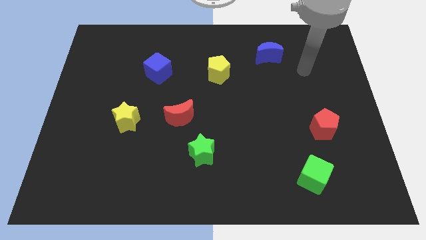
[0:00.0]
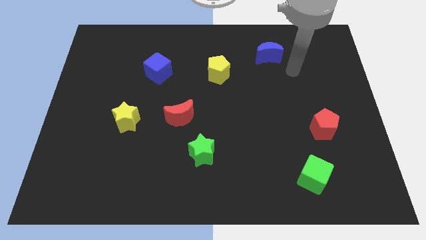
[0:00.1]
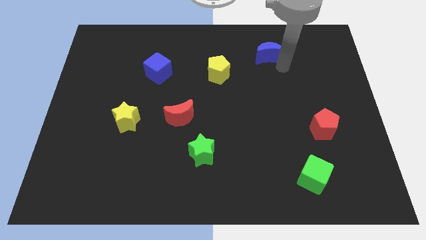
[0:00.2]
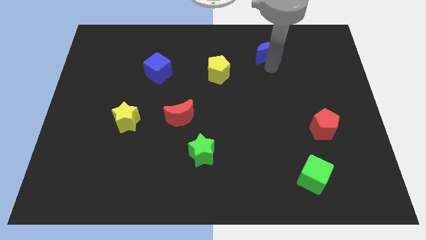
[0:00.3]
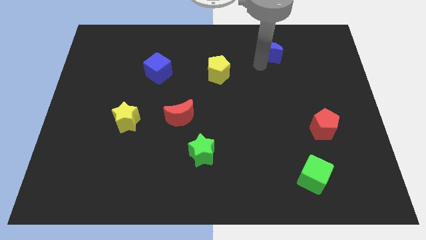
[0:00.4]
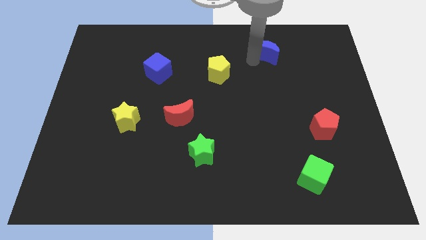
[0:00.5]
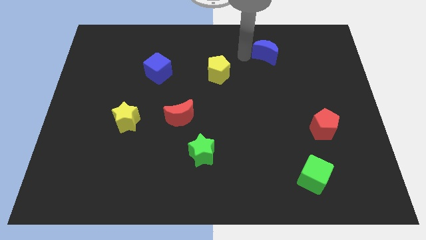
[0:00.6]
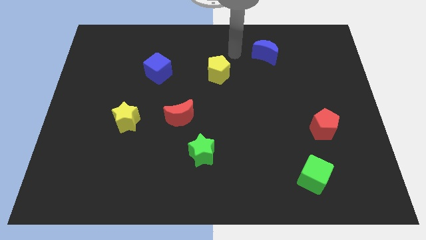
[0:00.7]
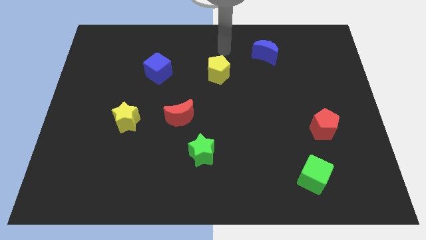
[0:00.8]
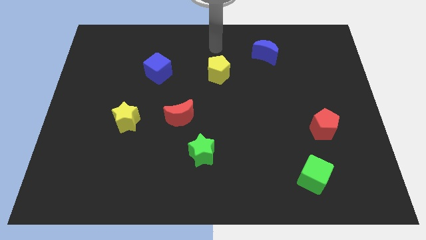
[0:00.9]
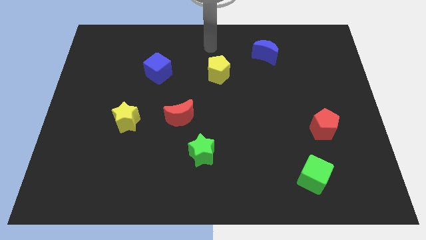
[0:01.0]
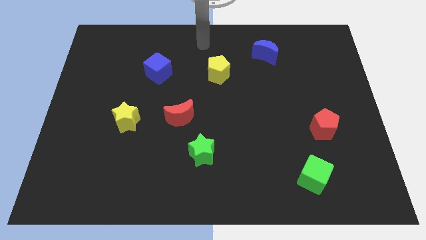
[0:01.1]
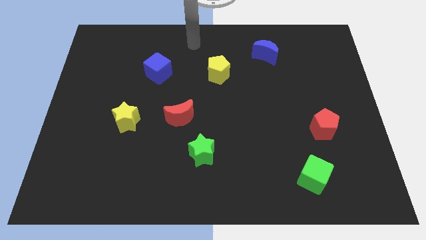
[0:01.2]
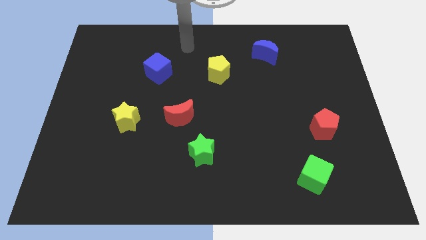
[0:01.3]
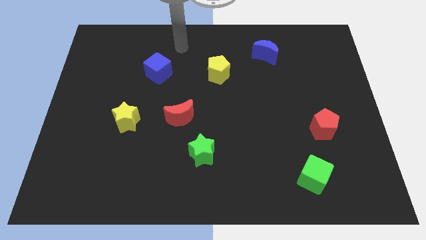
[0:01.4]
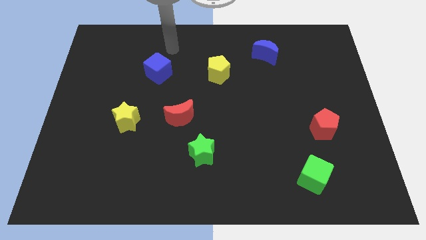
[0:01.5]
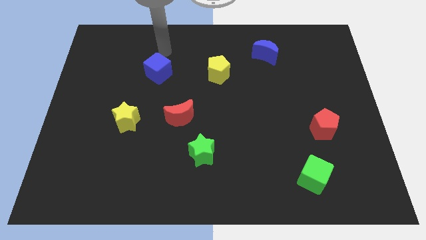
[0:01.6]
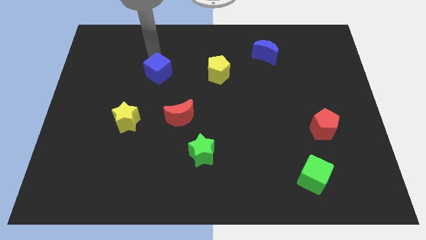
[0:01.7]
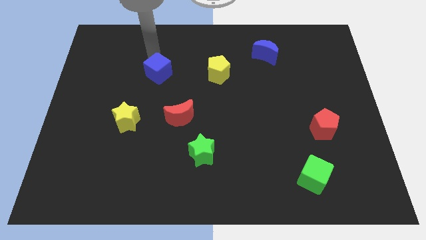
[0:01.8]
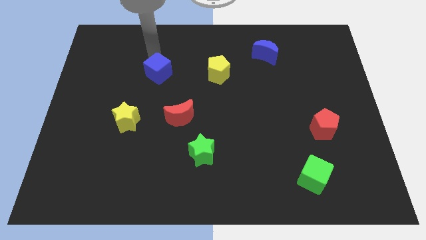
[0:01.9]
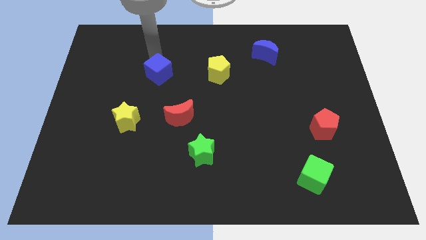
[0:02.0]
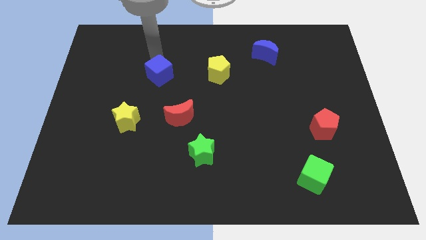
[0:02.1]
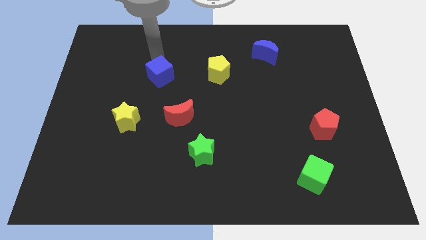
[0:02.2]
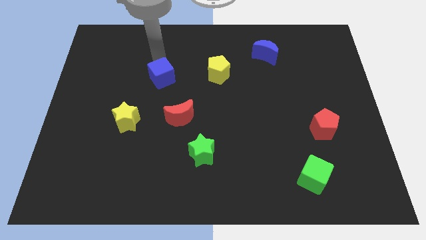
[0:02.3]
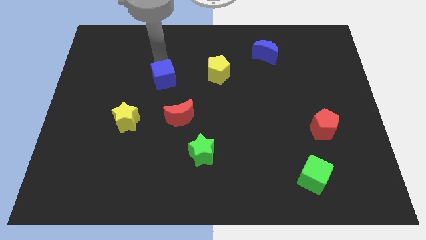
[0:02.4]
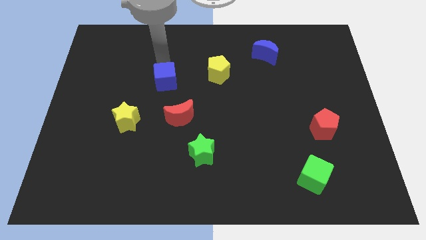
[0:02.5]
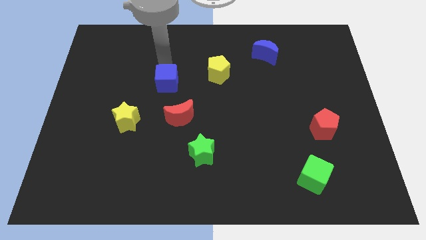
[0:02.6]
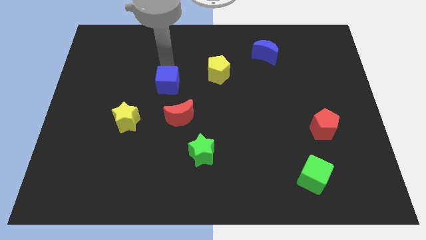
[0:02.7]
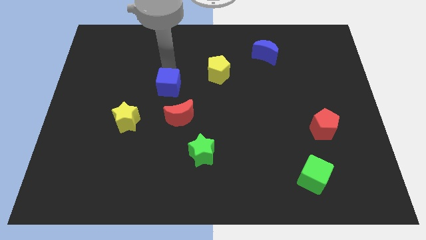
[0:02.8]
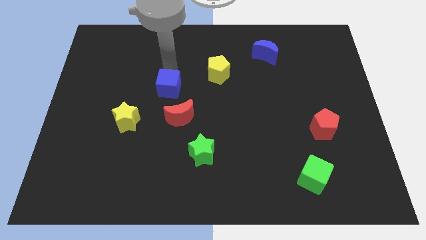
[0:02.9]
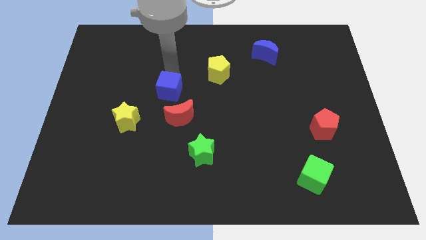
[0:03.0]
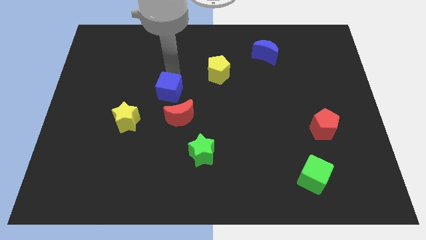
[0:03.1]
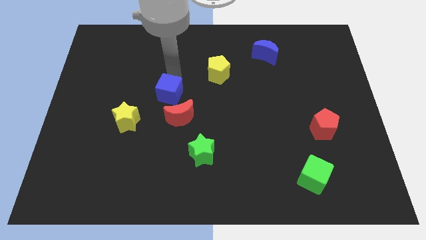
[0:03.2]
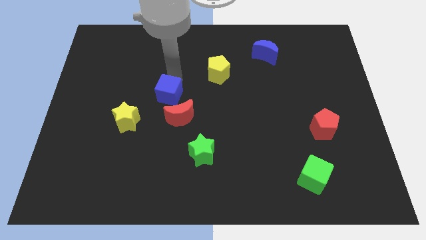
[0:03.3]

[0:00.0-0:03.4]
slide the blue cube downwards a bit

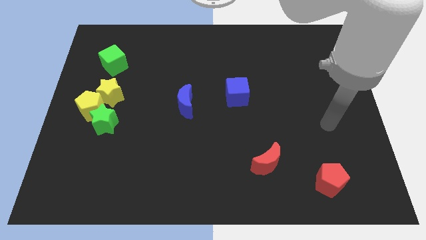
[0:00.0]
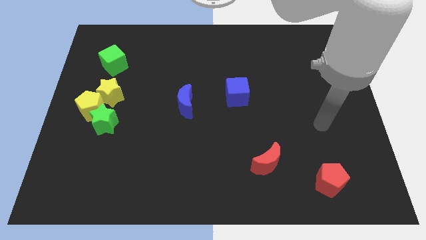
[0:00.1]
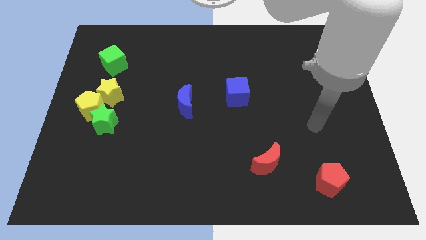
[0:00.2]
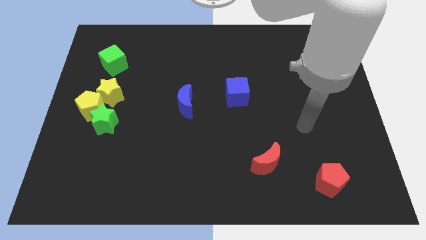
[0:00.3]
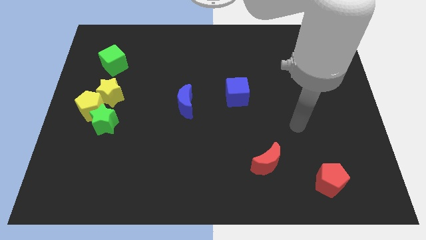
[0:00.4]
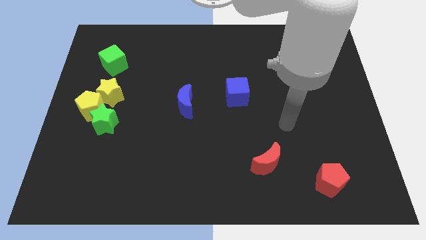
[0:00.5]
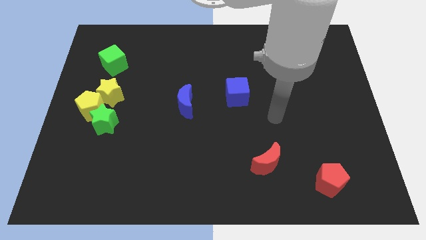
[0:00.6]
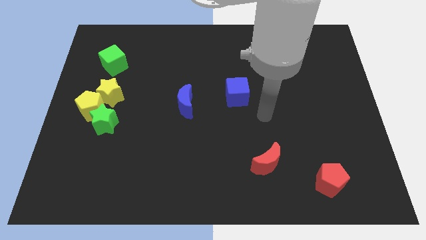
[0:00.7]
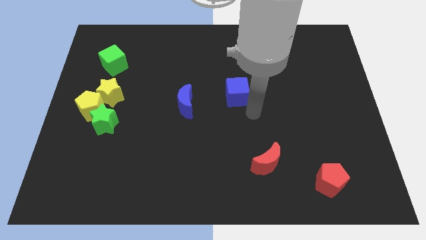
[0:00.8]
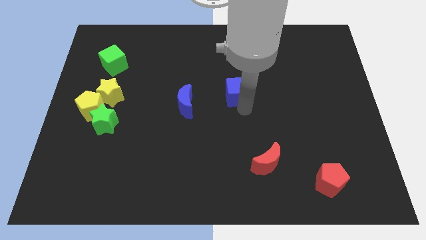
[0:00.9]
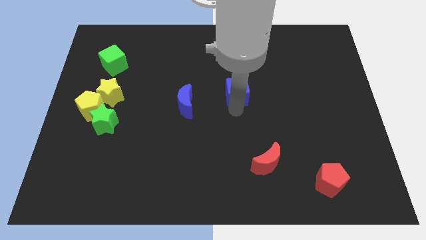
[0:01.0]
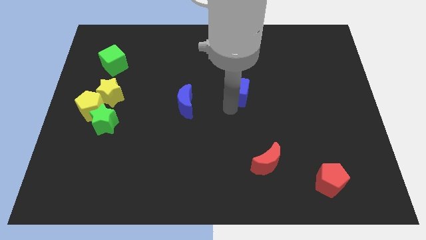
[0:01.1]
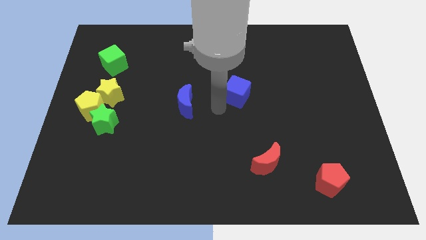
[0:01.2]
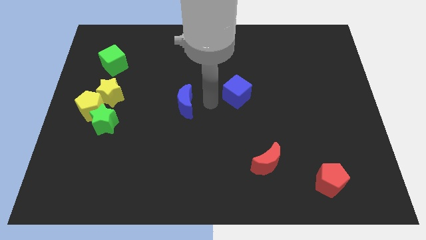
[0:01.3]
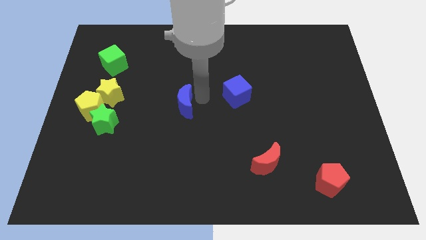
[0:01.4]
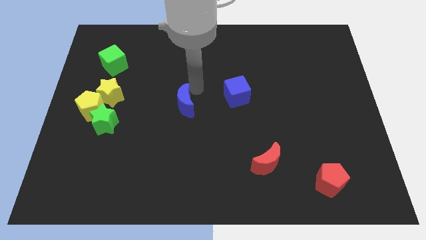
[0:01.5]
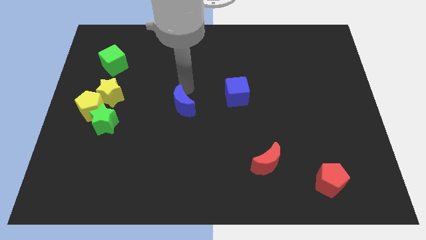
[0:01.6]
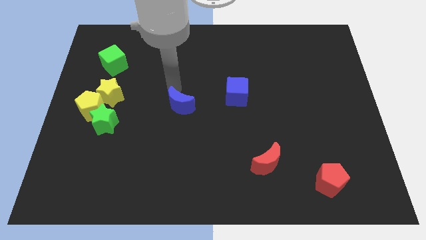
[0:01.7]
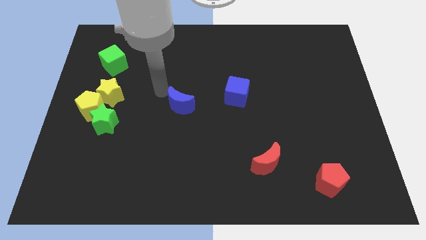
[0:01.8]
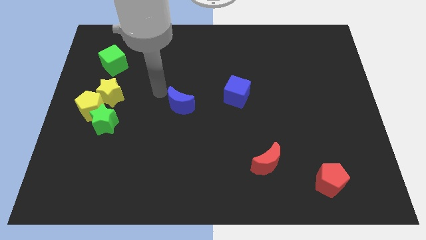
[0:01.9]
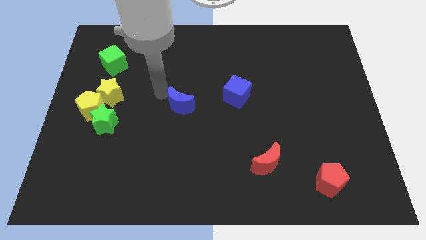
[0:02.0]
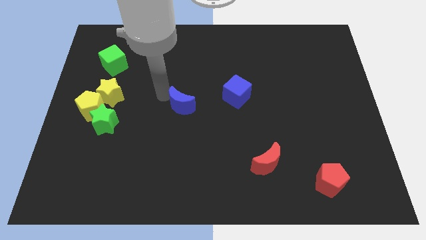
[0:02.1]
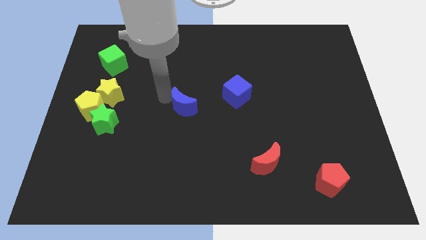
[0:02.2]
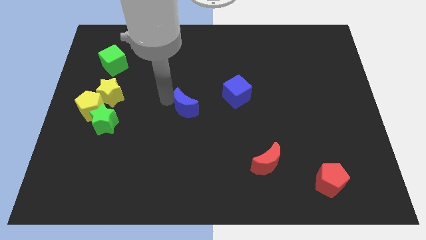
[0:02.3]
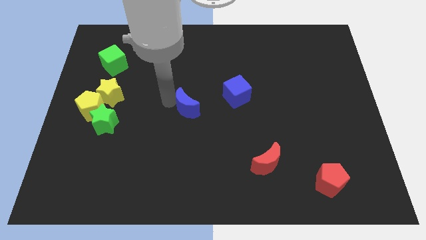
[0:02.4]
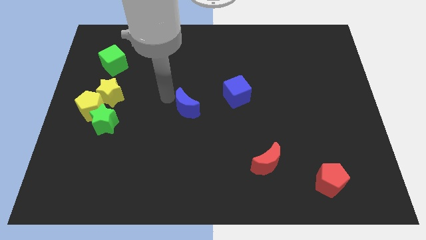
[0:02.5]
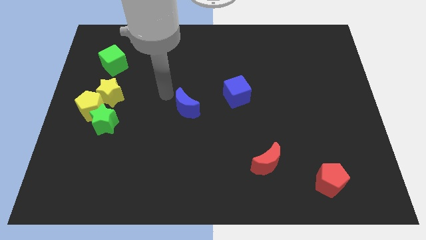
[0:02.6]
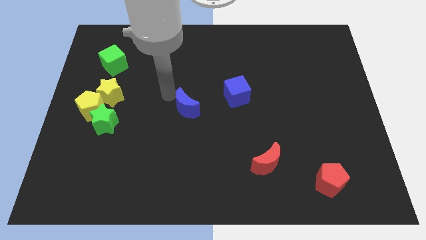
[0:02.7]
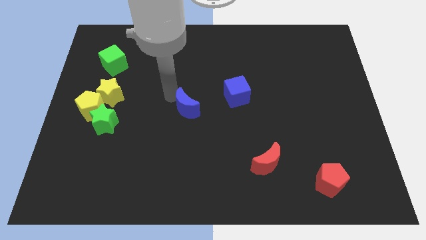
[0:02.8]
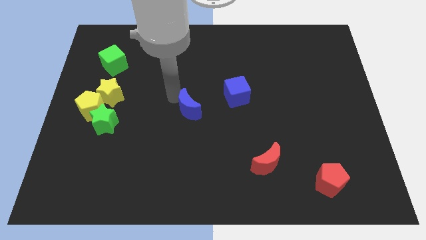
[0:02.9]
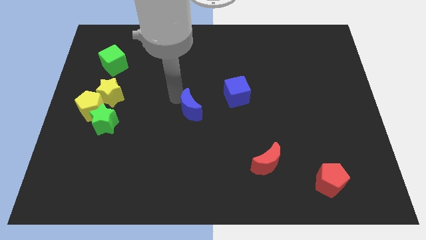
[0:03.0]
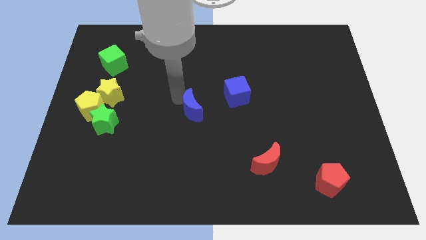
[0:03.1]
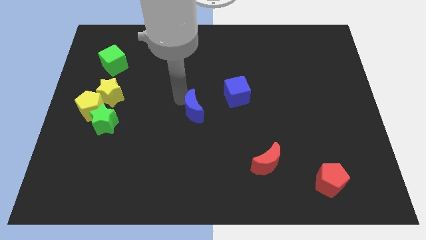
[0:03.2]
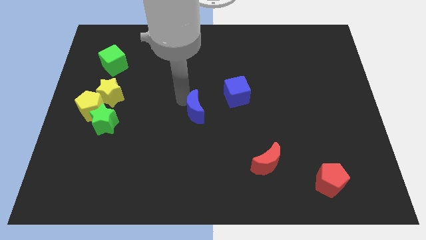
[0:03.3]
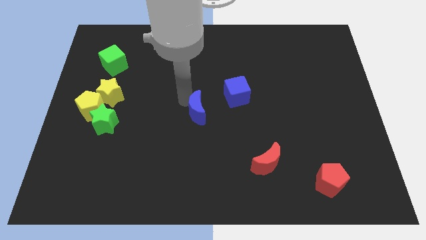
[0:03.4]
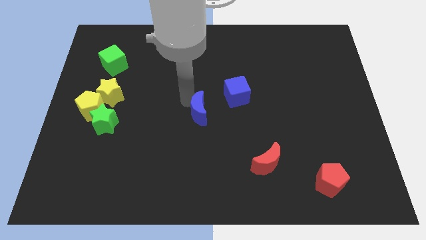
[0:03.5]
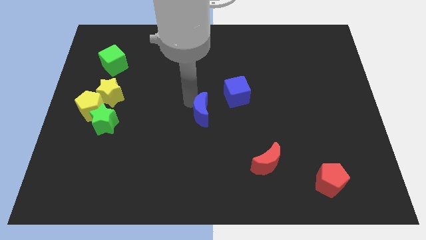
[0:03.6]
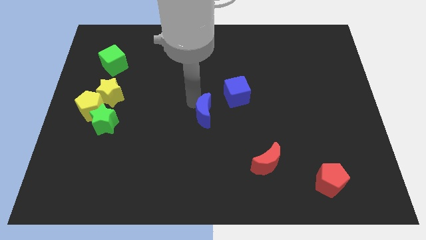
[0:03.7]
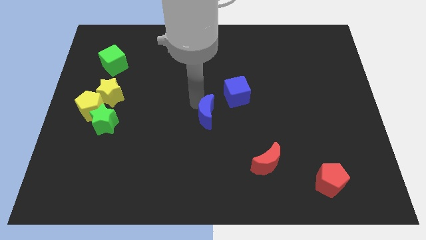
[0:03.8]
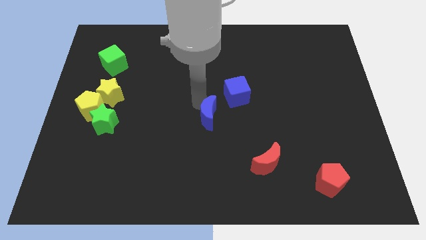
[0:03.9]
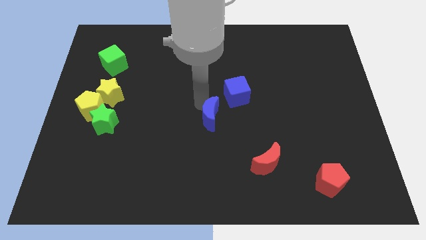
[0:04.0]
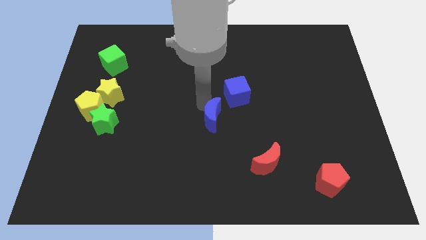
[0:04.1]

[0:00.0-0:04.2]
slide the blue moon a little bit diagonally down and right

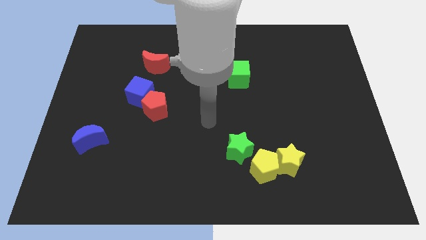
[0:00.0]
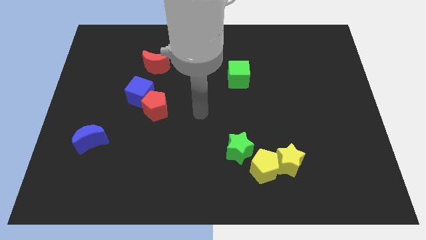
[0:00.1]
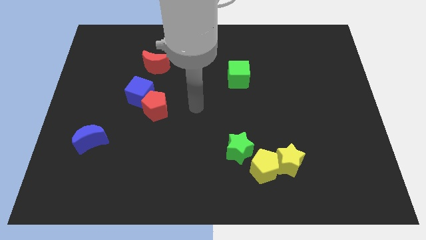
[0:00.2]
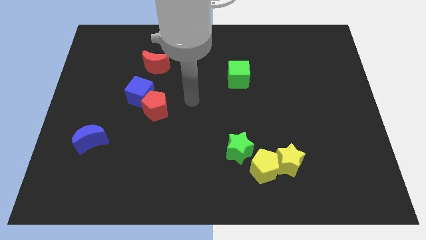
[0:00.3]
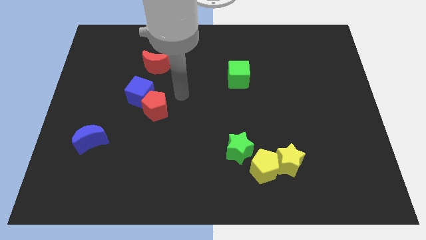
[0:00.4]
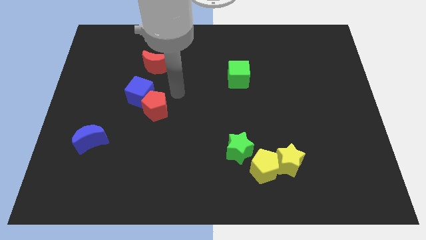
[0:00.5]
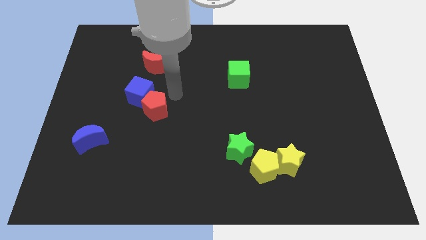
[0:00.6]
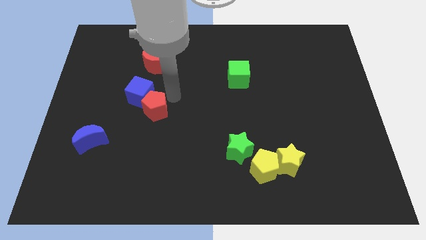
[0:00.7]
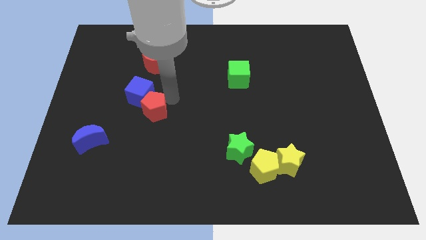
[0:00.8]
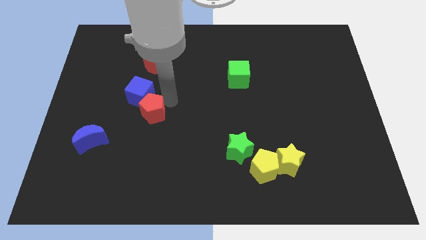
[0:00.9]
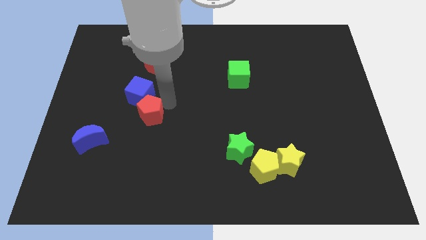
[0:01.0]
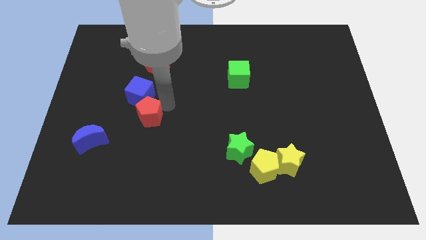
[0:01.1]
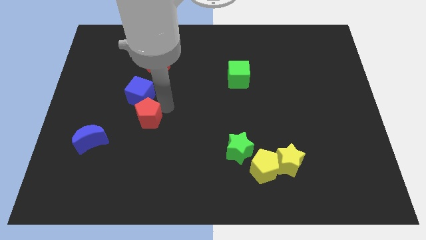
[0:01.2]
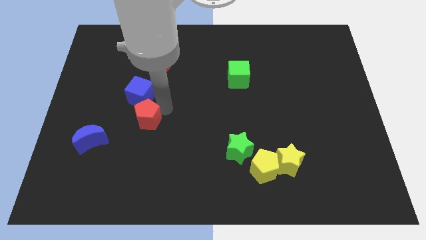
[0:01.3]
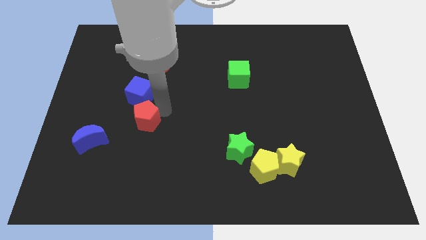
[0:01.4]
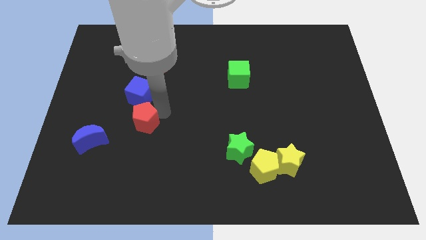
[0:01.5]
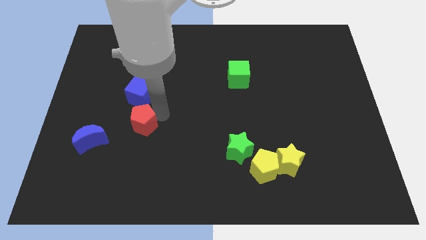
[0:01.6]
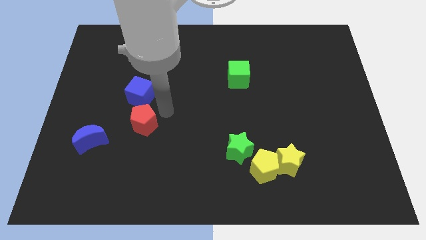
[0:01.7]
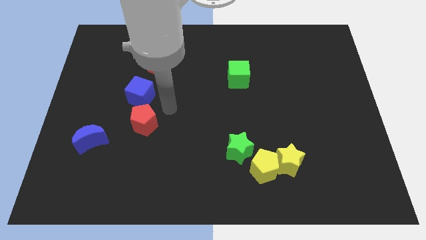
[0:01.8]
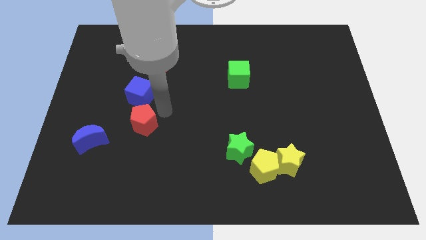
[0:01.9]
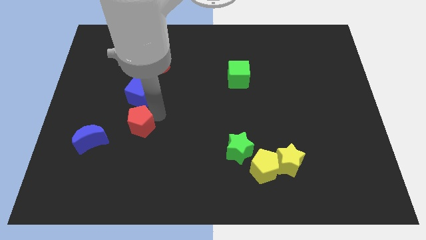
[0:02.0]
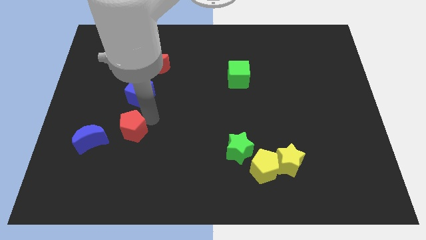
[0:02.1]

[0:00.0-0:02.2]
slightly push the red pentagon down and then to the left
